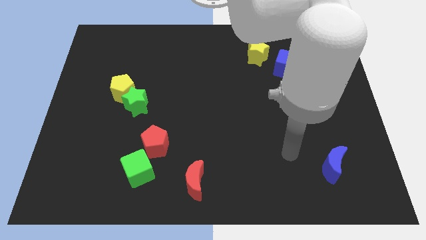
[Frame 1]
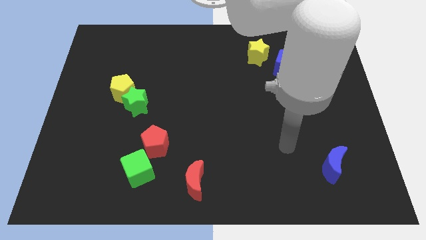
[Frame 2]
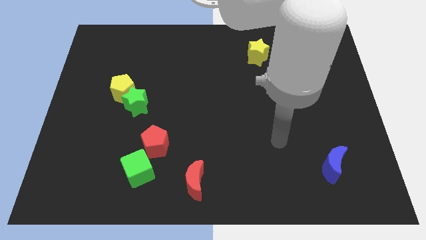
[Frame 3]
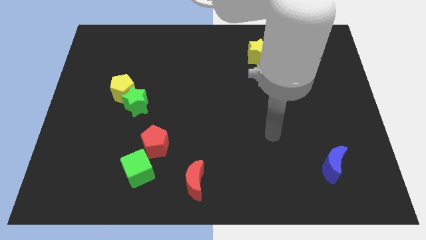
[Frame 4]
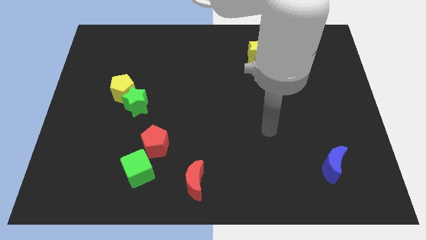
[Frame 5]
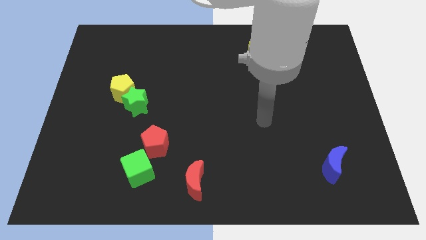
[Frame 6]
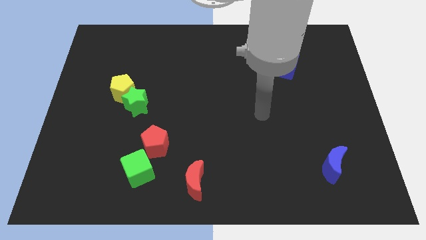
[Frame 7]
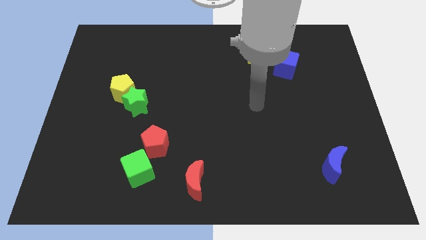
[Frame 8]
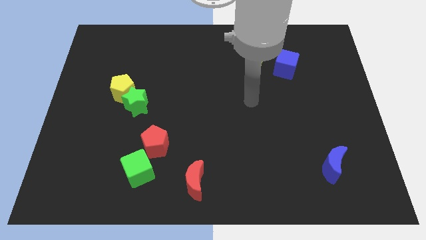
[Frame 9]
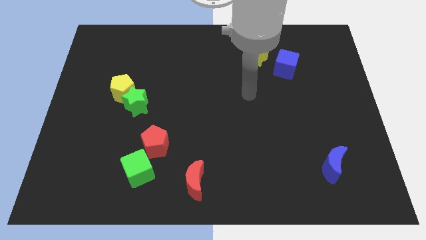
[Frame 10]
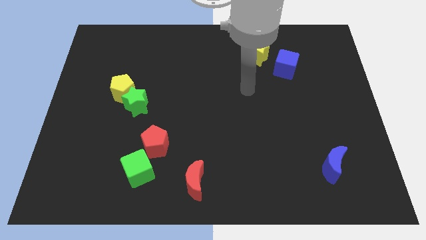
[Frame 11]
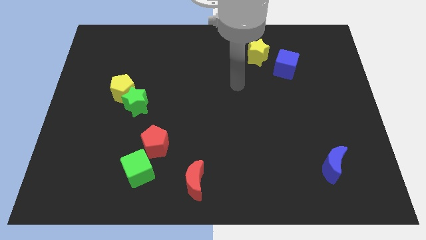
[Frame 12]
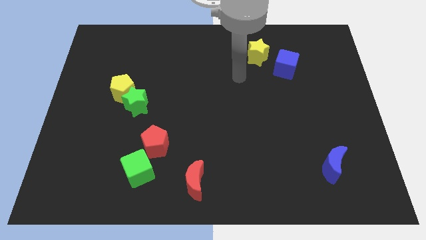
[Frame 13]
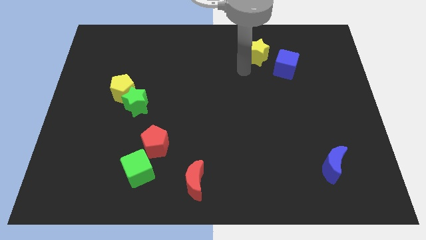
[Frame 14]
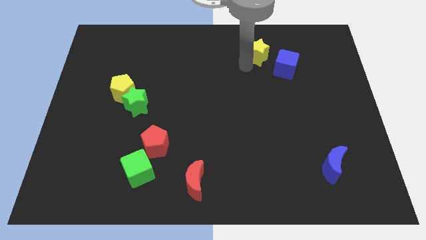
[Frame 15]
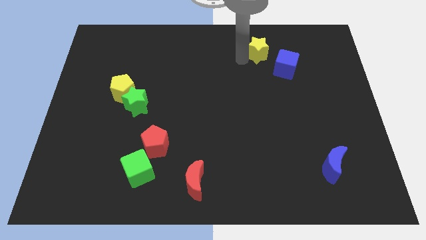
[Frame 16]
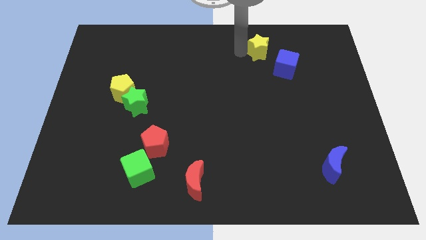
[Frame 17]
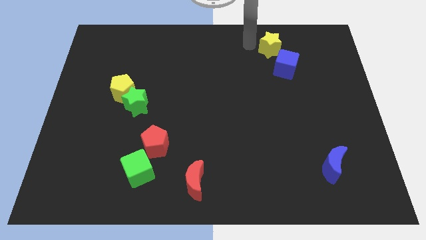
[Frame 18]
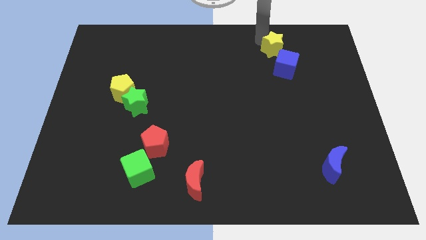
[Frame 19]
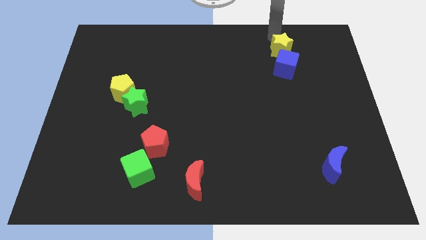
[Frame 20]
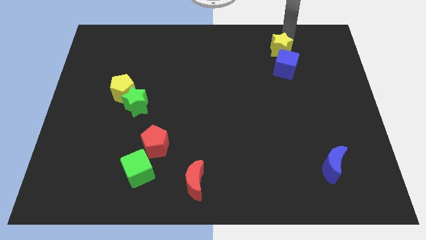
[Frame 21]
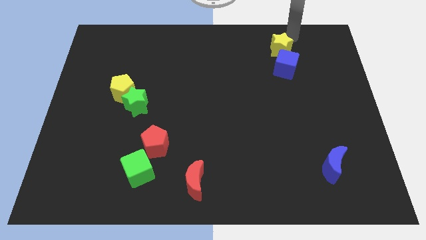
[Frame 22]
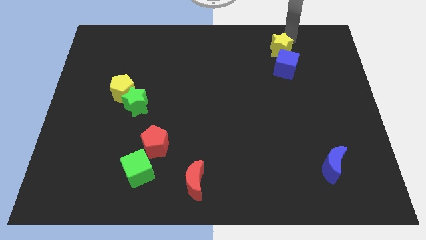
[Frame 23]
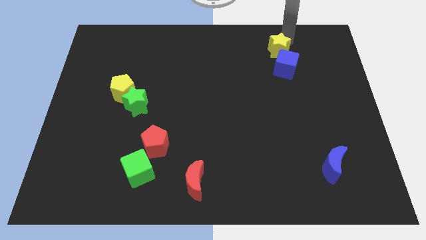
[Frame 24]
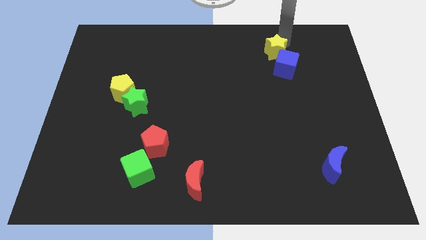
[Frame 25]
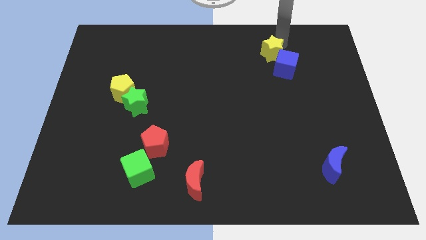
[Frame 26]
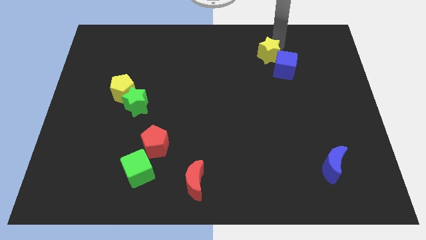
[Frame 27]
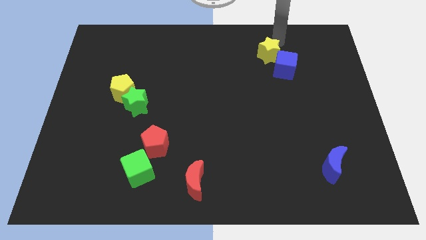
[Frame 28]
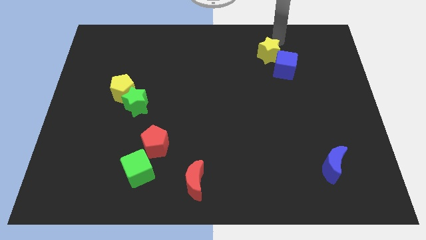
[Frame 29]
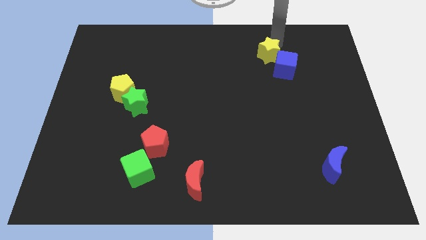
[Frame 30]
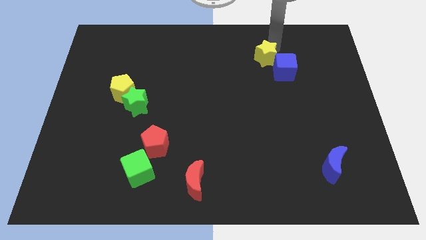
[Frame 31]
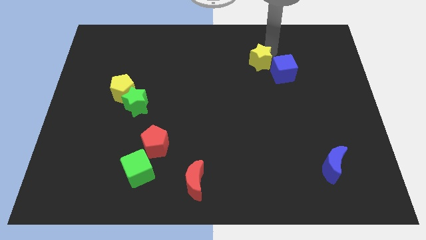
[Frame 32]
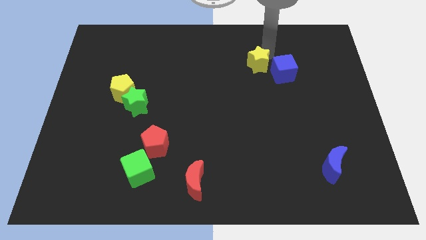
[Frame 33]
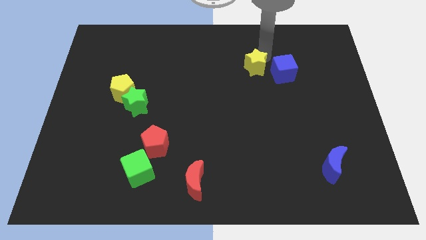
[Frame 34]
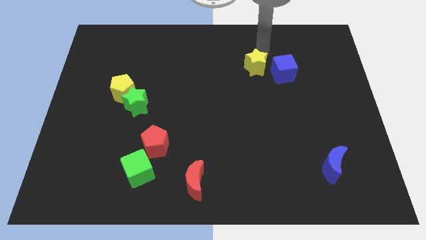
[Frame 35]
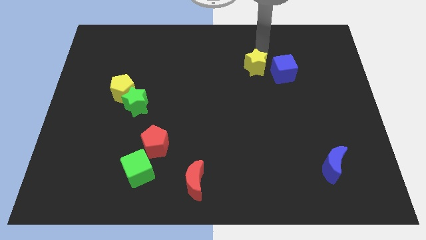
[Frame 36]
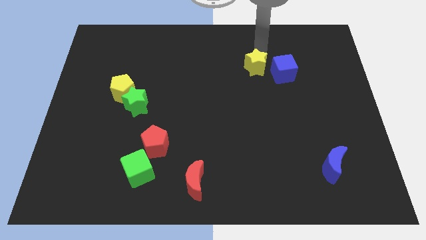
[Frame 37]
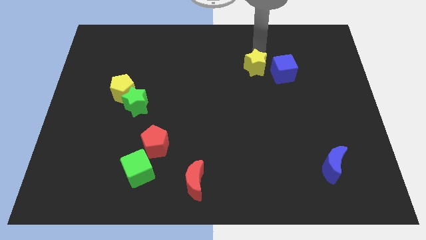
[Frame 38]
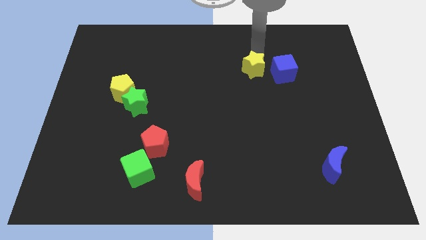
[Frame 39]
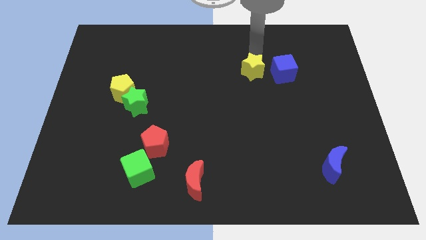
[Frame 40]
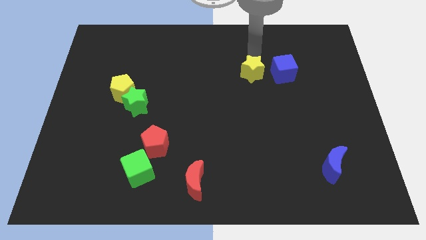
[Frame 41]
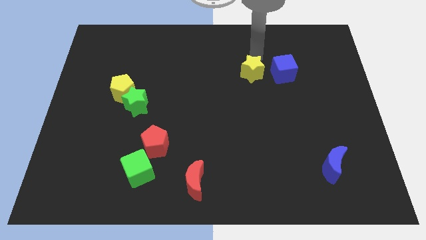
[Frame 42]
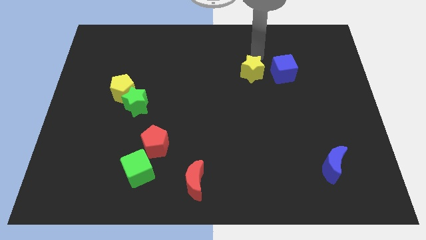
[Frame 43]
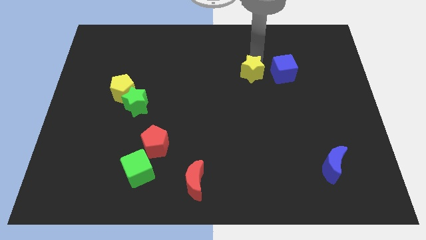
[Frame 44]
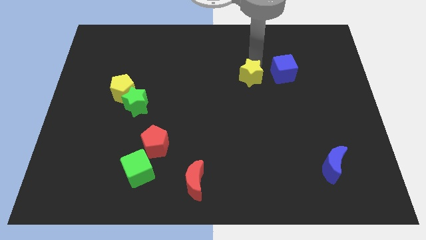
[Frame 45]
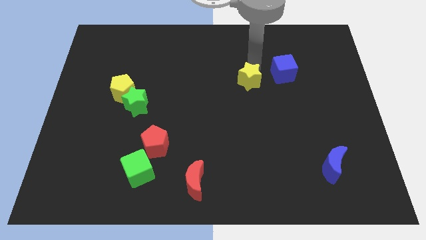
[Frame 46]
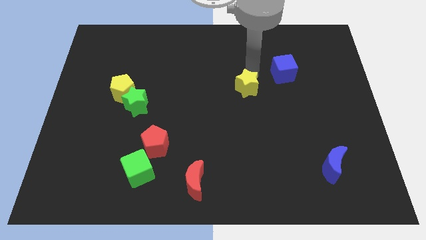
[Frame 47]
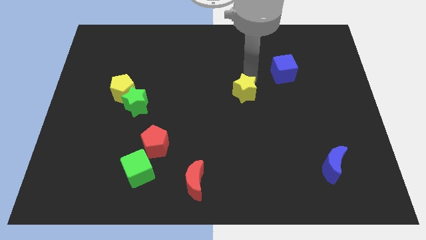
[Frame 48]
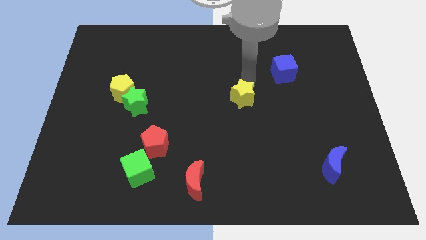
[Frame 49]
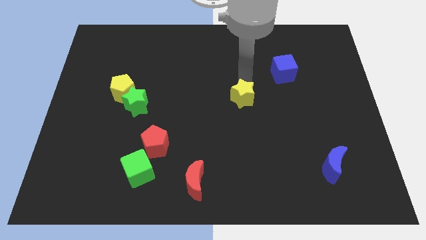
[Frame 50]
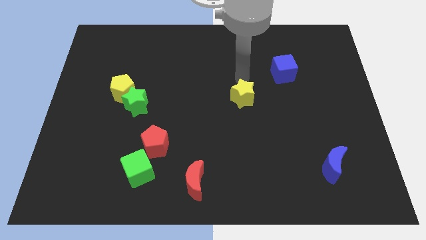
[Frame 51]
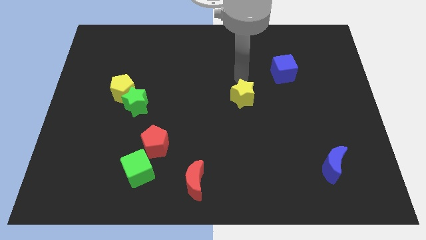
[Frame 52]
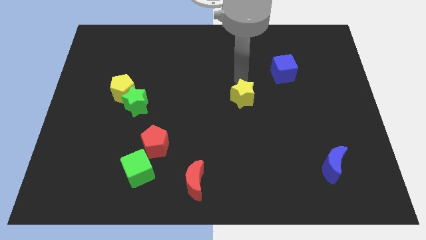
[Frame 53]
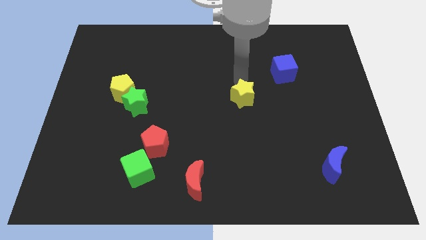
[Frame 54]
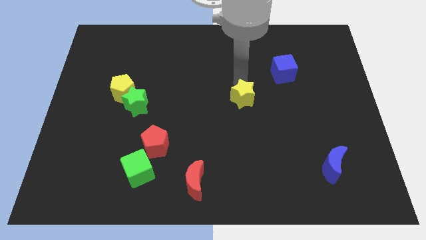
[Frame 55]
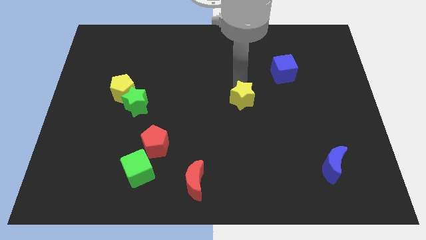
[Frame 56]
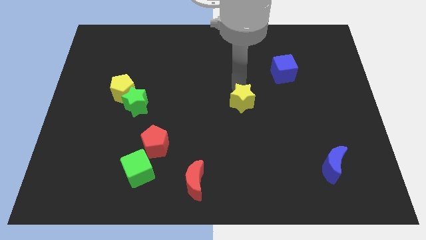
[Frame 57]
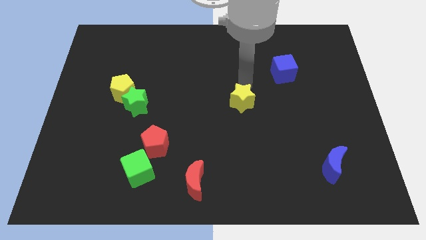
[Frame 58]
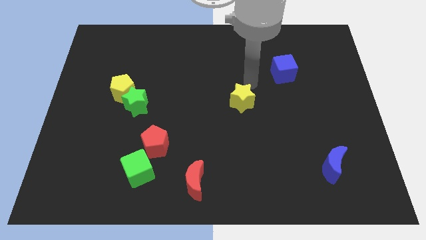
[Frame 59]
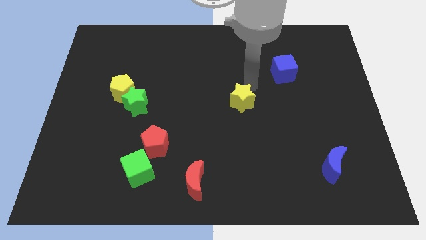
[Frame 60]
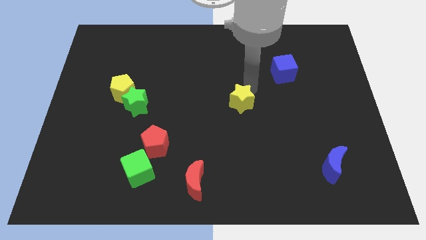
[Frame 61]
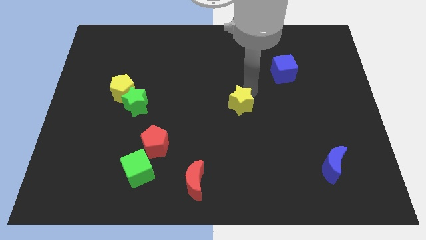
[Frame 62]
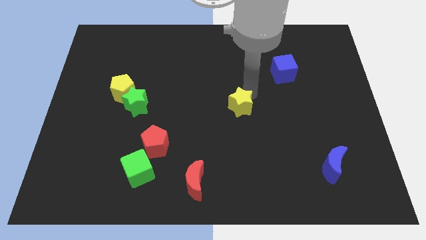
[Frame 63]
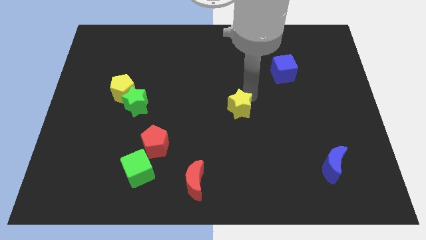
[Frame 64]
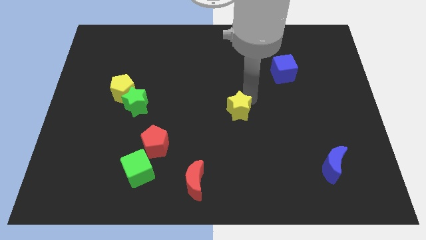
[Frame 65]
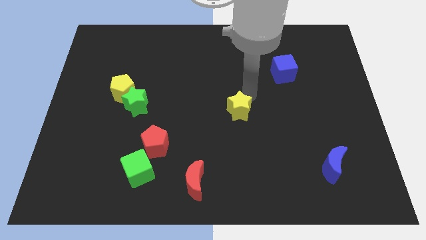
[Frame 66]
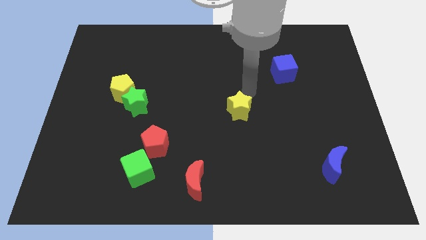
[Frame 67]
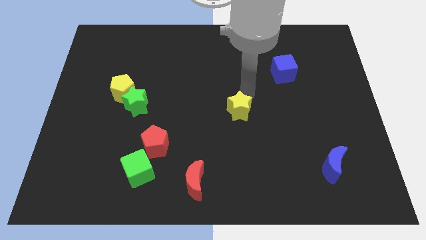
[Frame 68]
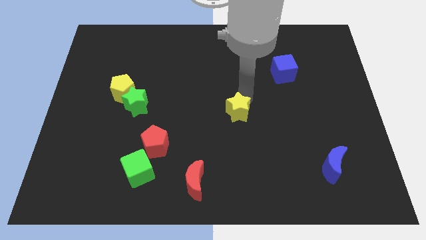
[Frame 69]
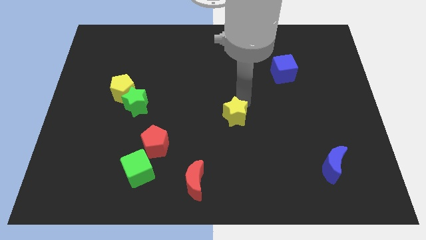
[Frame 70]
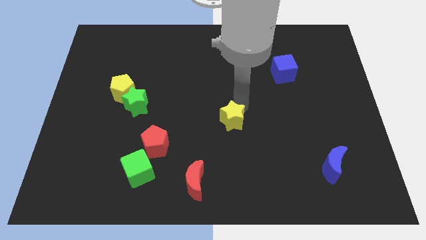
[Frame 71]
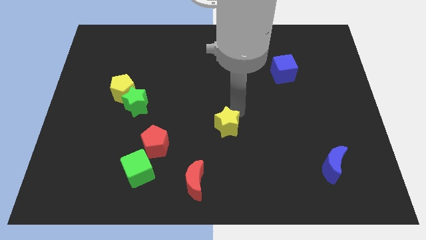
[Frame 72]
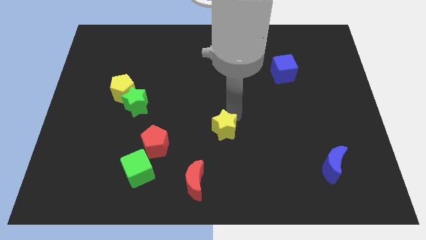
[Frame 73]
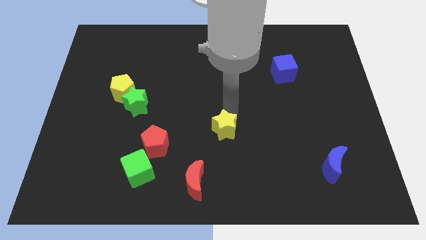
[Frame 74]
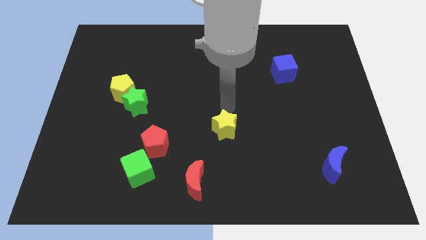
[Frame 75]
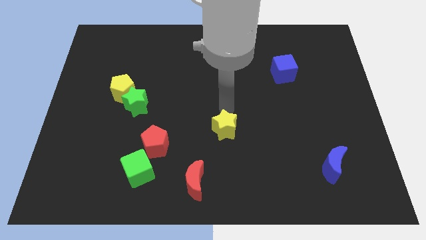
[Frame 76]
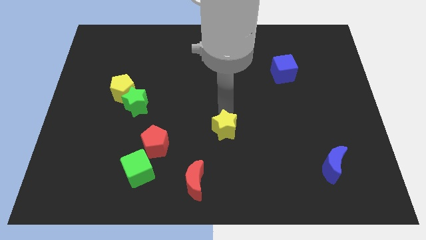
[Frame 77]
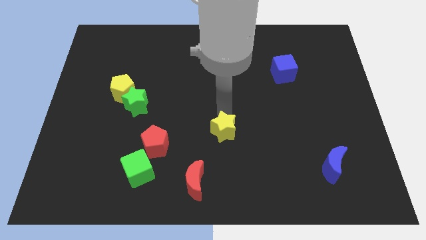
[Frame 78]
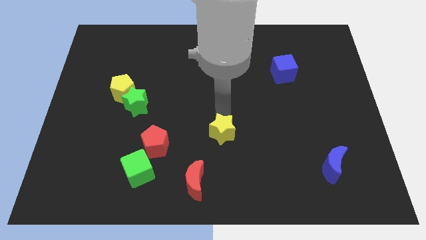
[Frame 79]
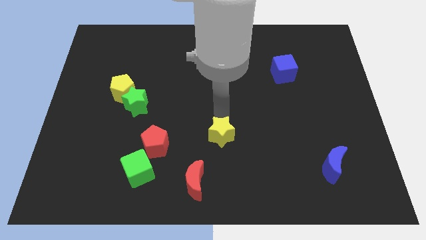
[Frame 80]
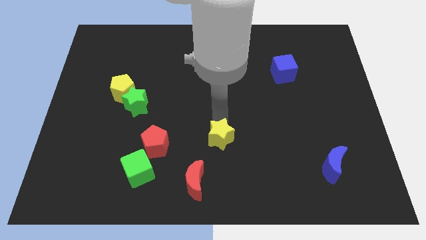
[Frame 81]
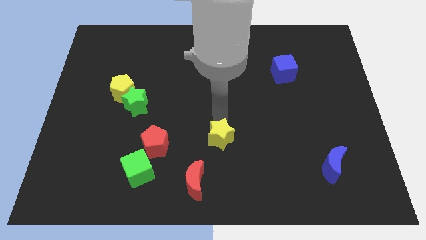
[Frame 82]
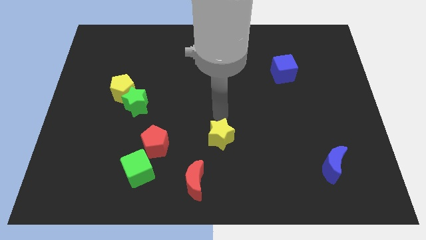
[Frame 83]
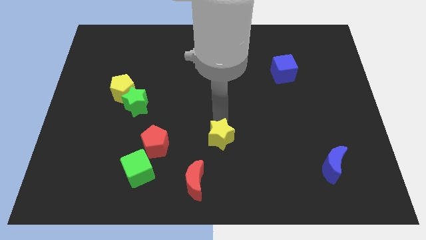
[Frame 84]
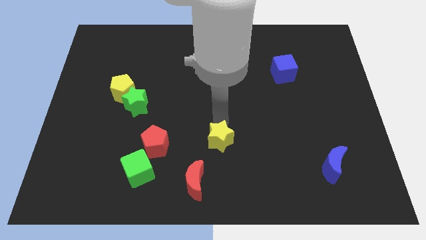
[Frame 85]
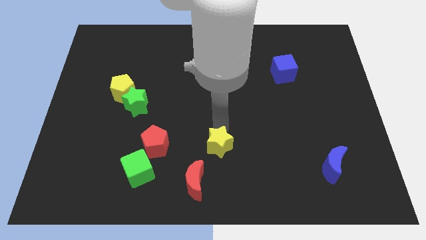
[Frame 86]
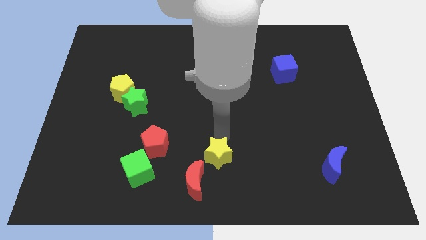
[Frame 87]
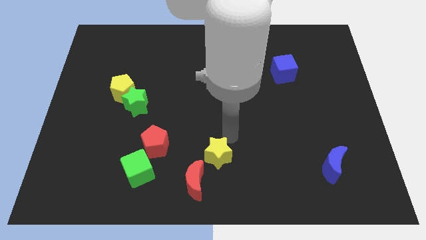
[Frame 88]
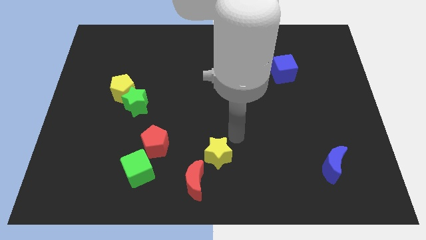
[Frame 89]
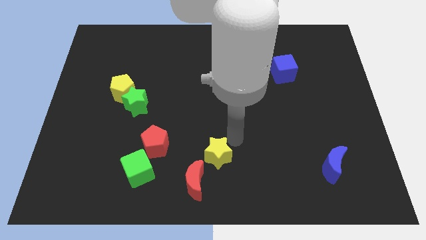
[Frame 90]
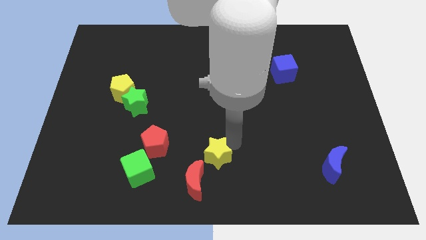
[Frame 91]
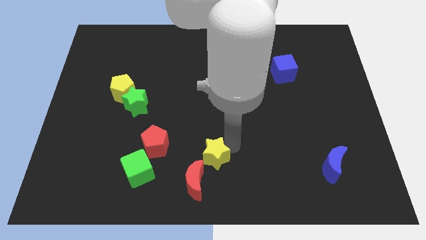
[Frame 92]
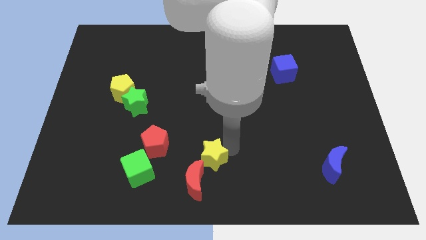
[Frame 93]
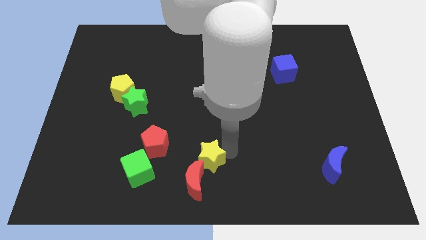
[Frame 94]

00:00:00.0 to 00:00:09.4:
push the yellow star next to the red moon
